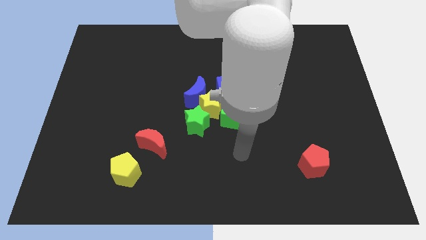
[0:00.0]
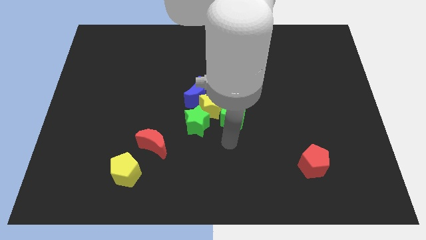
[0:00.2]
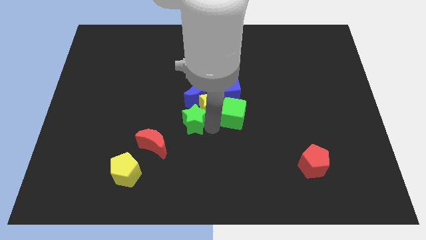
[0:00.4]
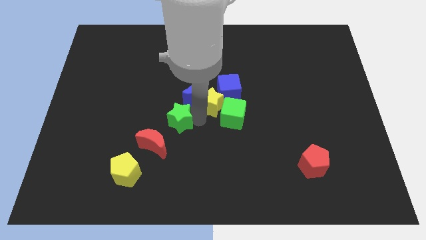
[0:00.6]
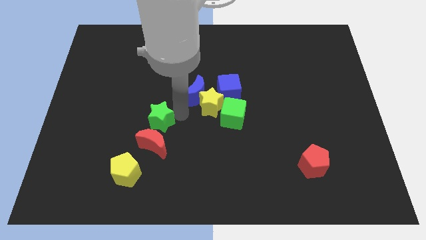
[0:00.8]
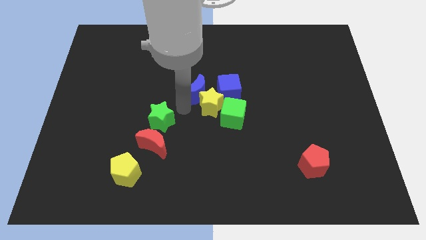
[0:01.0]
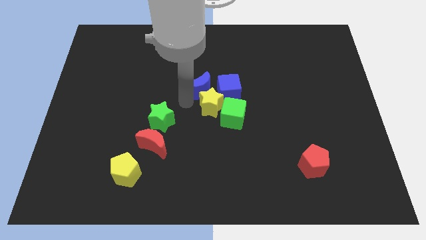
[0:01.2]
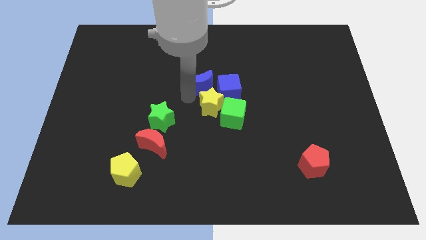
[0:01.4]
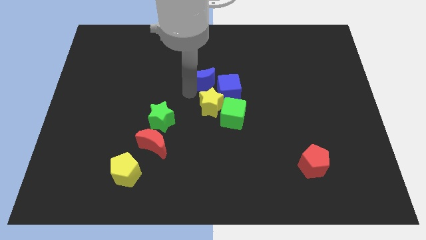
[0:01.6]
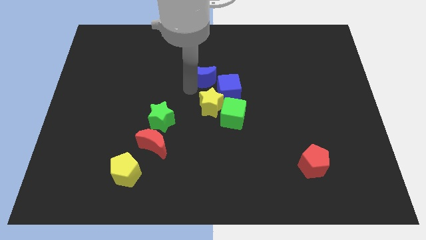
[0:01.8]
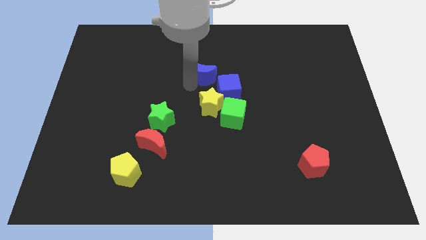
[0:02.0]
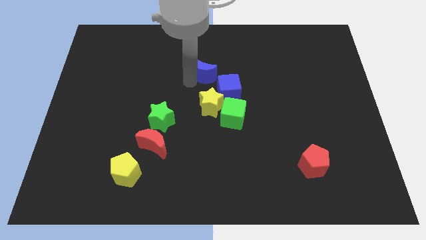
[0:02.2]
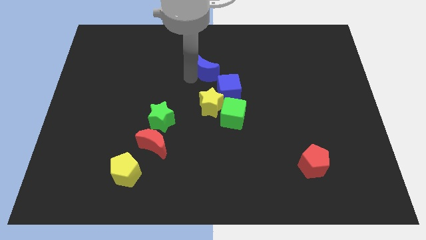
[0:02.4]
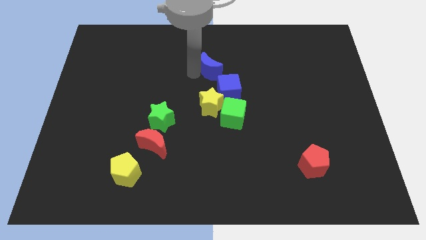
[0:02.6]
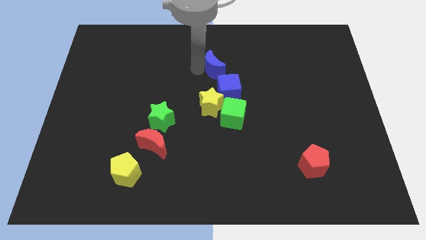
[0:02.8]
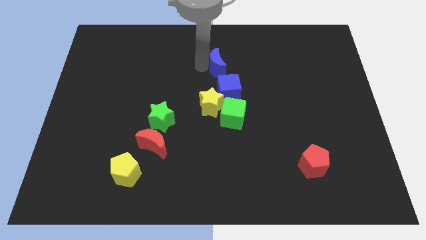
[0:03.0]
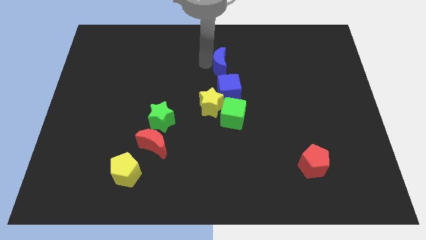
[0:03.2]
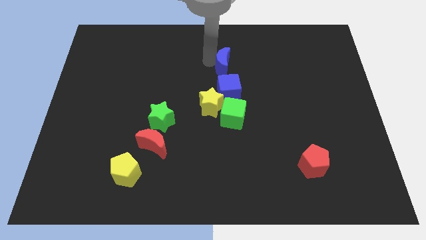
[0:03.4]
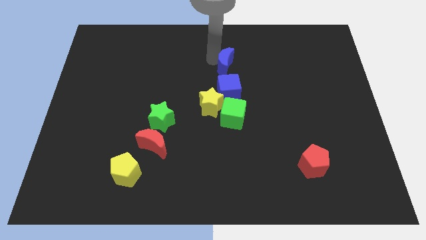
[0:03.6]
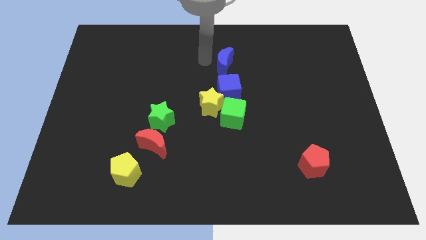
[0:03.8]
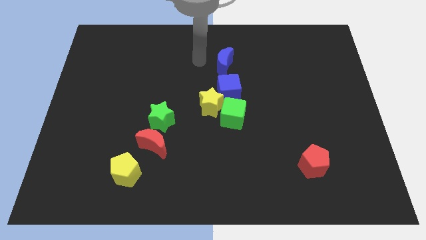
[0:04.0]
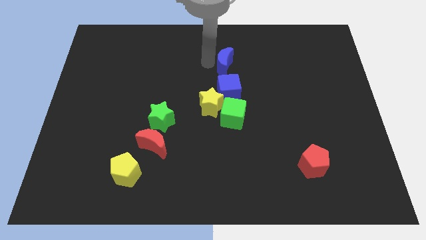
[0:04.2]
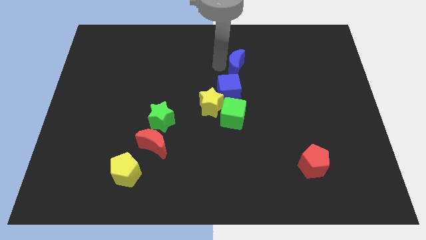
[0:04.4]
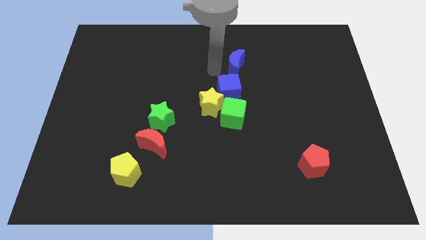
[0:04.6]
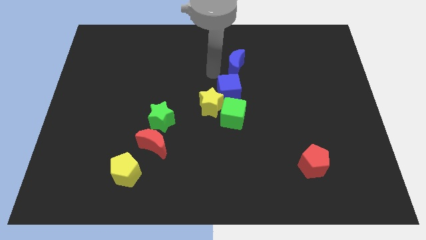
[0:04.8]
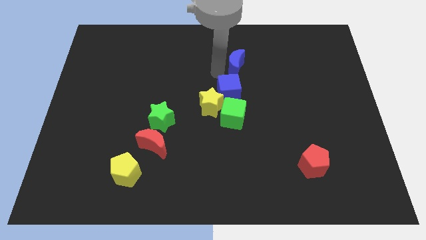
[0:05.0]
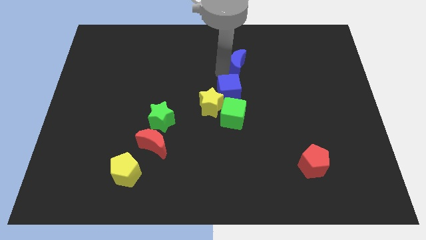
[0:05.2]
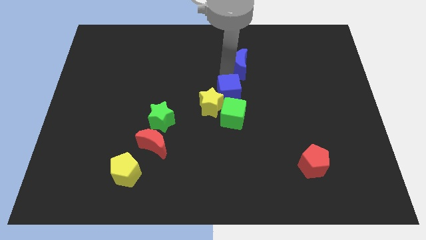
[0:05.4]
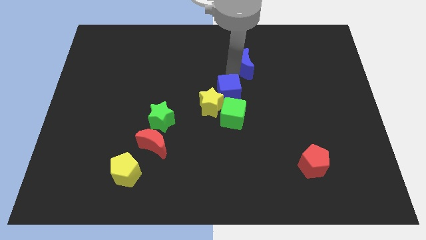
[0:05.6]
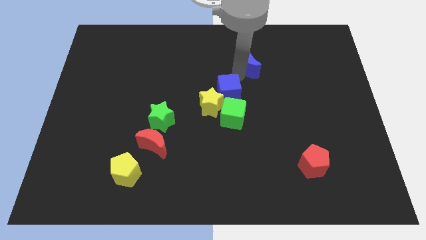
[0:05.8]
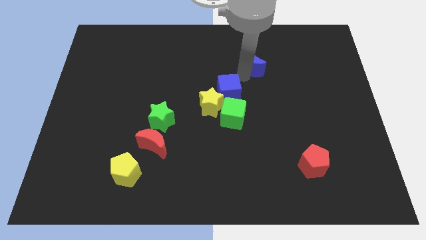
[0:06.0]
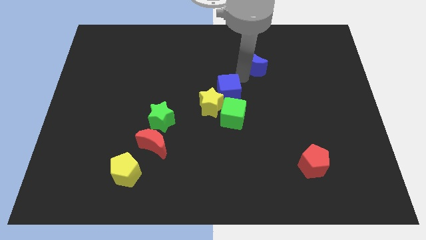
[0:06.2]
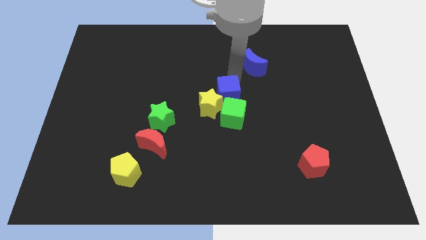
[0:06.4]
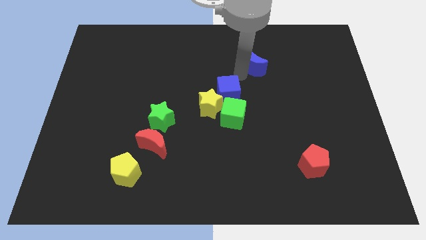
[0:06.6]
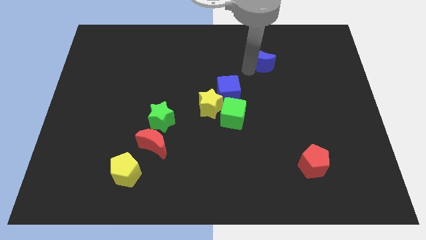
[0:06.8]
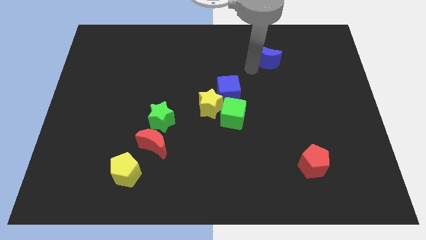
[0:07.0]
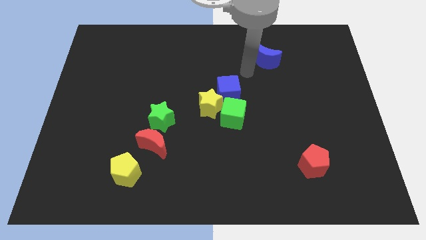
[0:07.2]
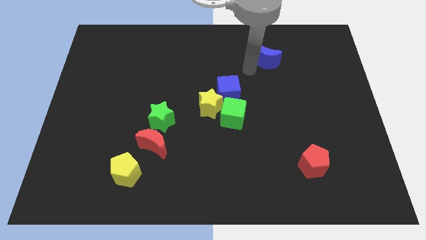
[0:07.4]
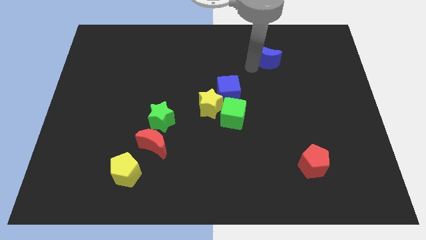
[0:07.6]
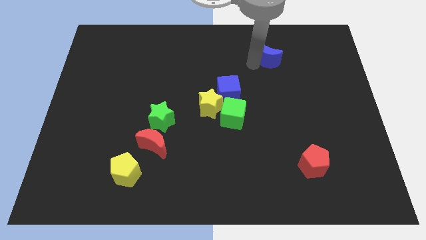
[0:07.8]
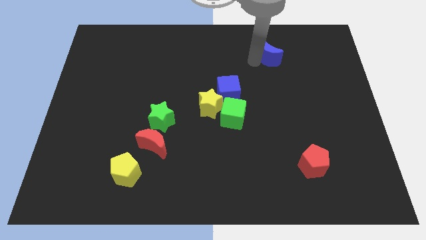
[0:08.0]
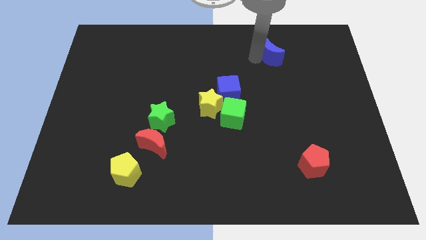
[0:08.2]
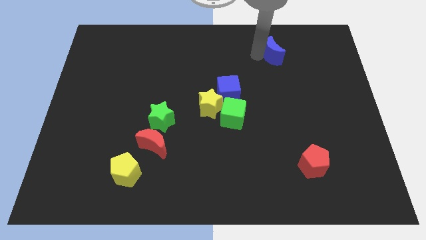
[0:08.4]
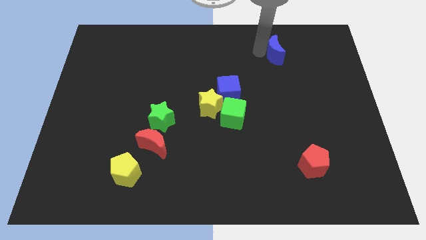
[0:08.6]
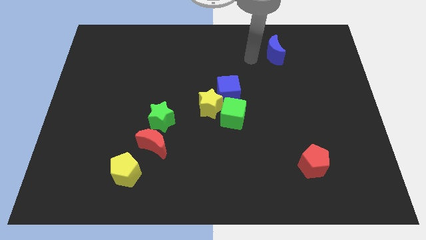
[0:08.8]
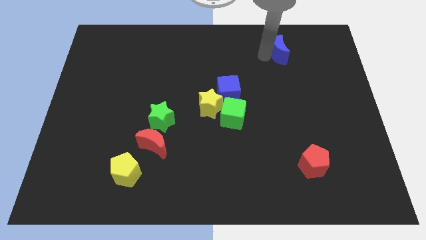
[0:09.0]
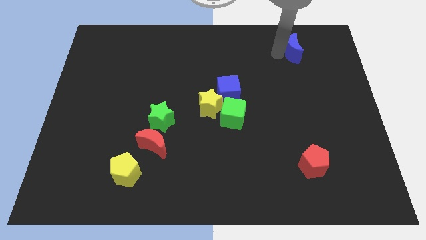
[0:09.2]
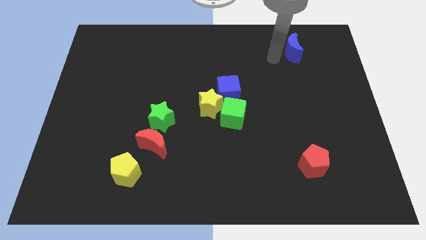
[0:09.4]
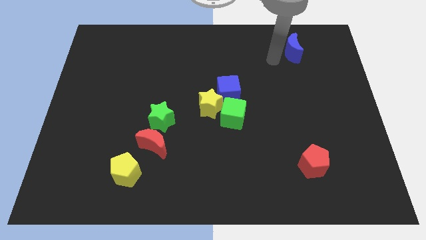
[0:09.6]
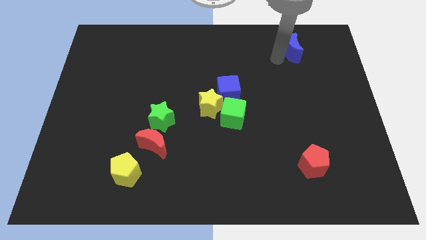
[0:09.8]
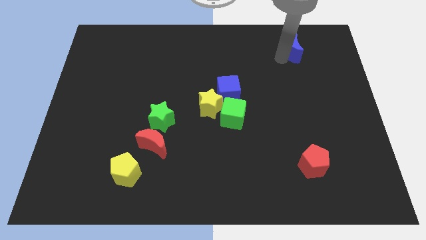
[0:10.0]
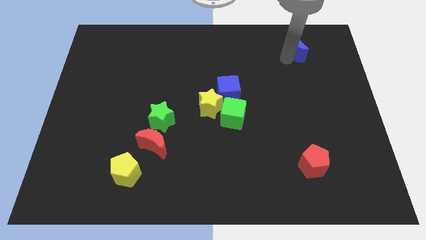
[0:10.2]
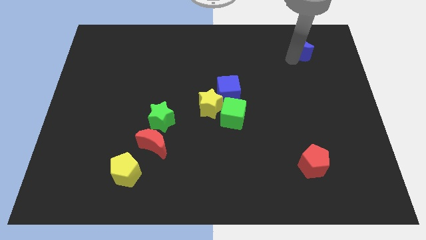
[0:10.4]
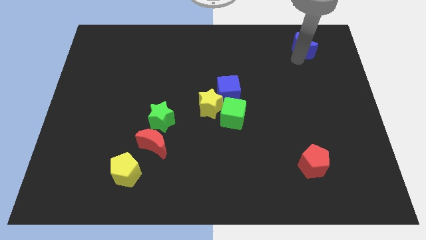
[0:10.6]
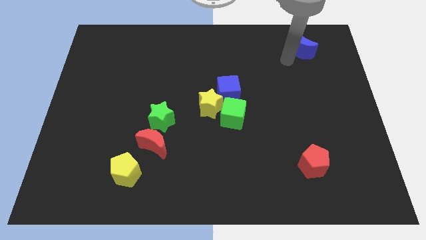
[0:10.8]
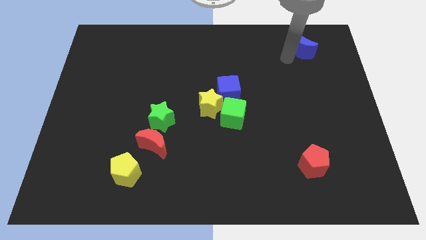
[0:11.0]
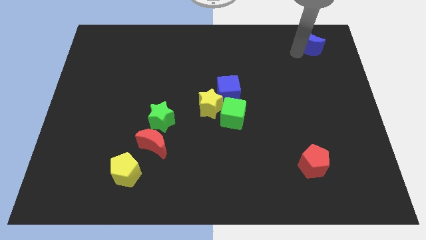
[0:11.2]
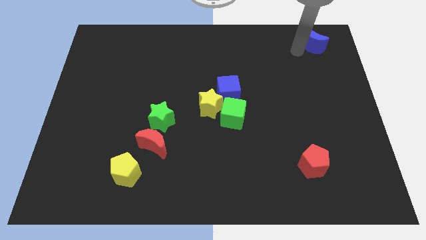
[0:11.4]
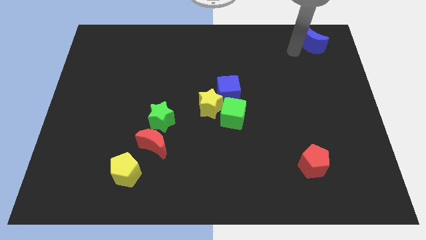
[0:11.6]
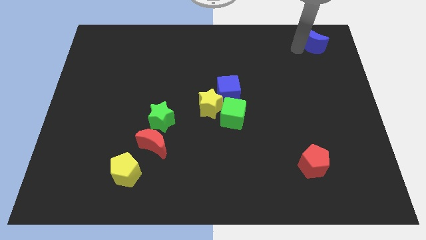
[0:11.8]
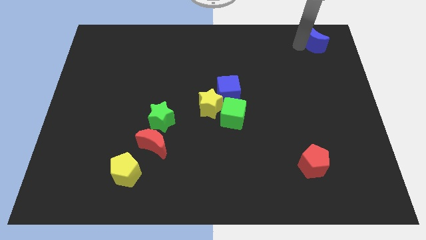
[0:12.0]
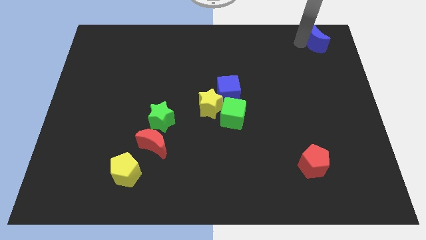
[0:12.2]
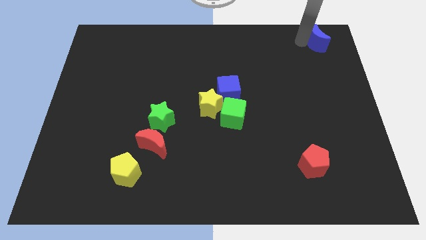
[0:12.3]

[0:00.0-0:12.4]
push the blue moon to the top right corner

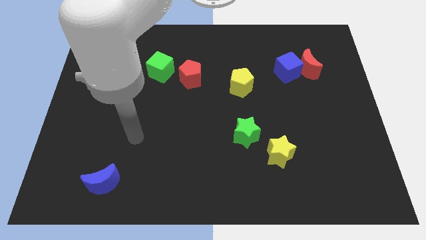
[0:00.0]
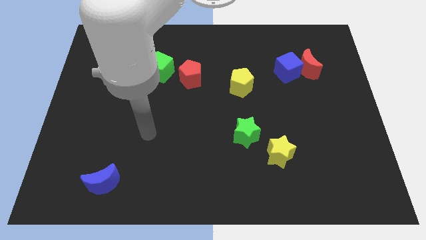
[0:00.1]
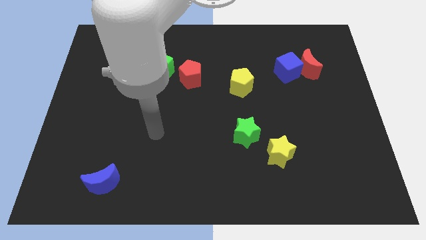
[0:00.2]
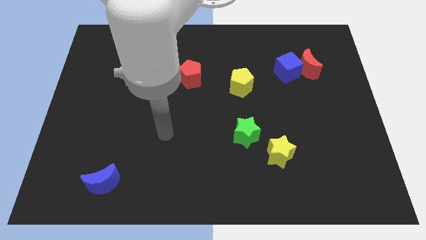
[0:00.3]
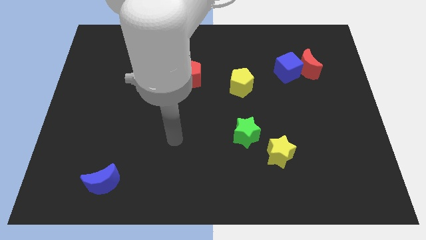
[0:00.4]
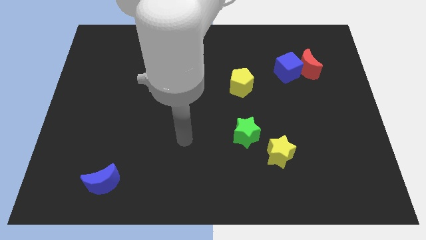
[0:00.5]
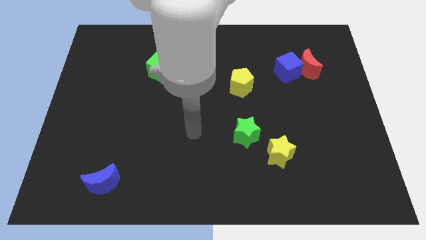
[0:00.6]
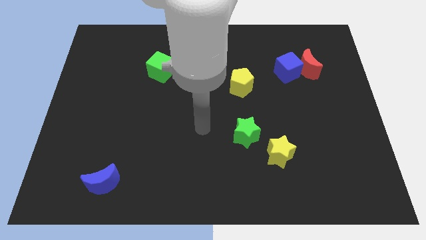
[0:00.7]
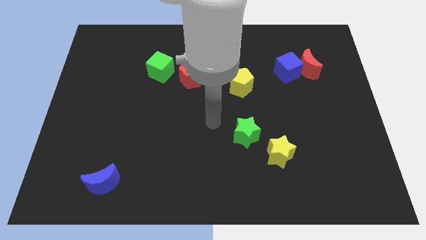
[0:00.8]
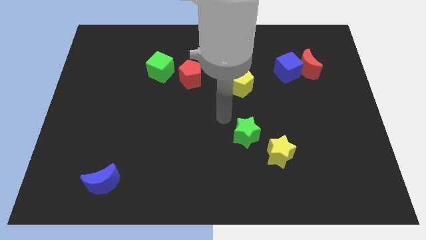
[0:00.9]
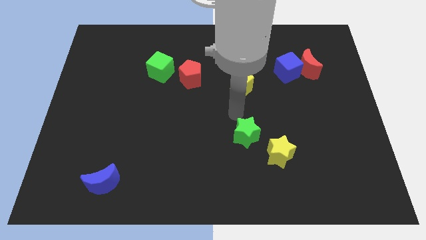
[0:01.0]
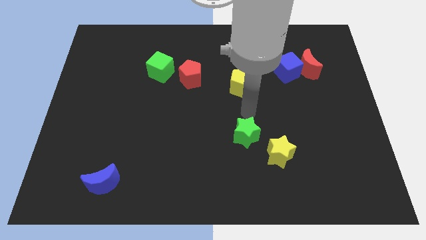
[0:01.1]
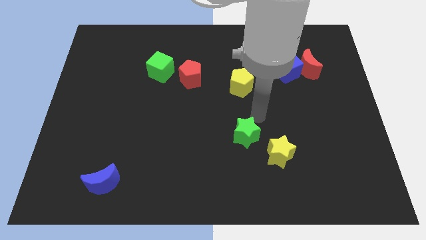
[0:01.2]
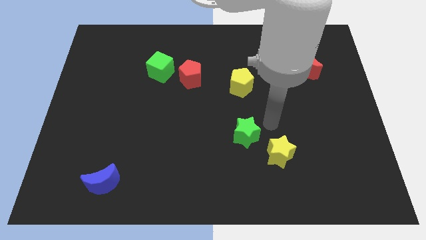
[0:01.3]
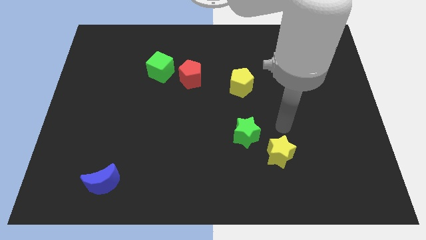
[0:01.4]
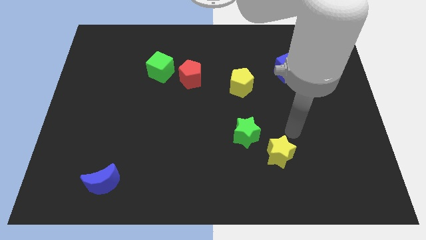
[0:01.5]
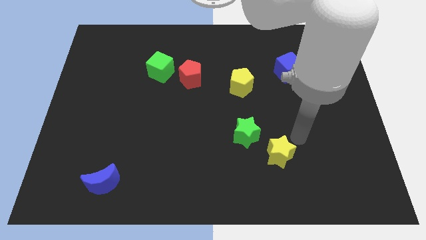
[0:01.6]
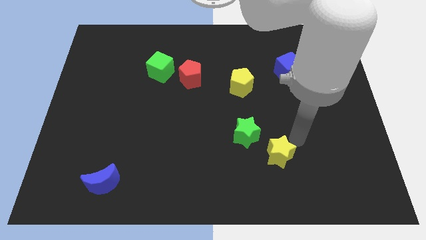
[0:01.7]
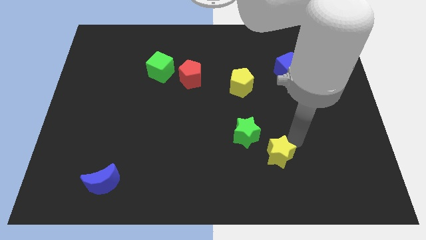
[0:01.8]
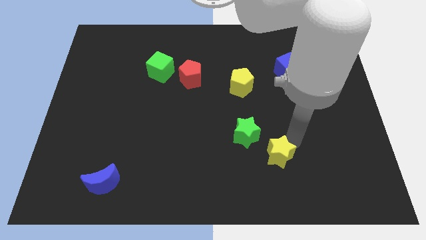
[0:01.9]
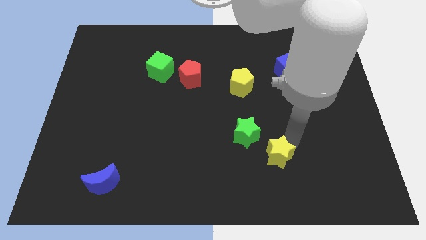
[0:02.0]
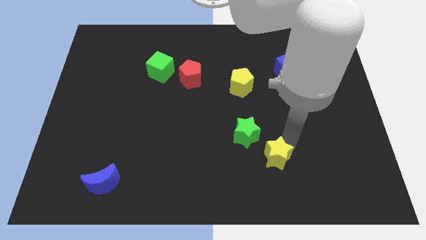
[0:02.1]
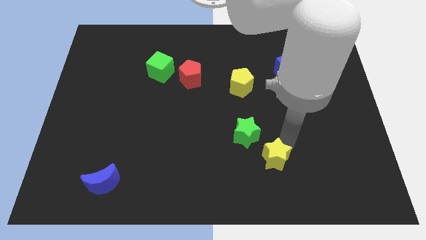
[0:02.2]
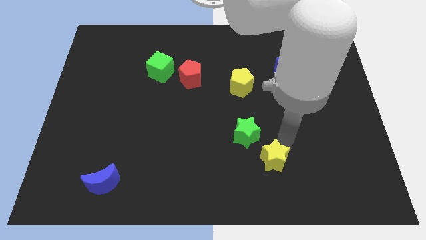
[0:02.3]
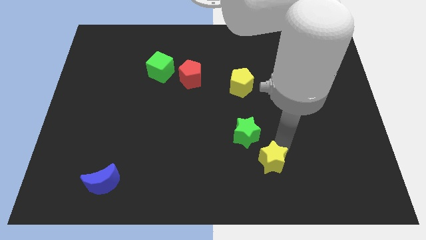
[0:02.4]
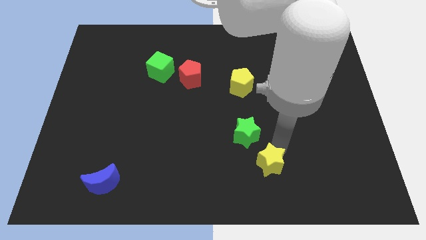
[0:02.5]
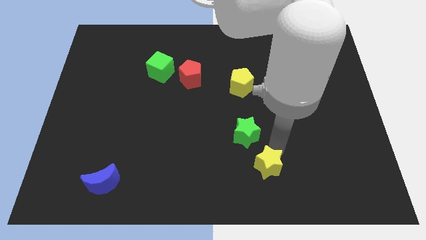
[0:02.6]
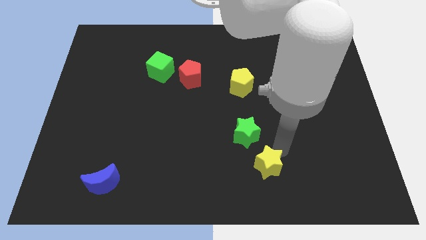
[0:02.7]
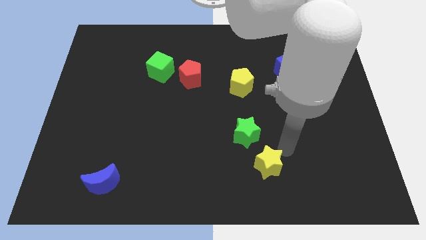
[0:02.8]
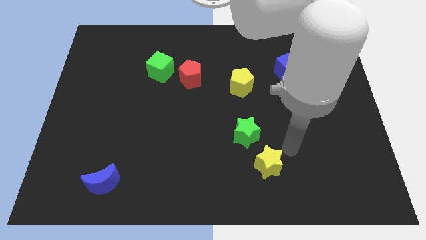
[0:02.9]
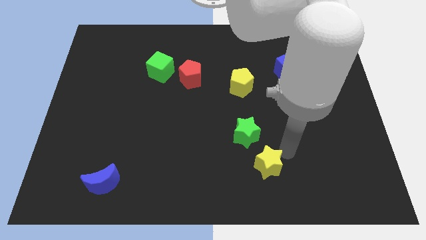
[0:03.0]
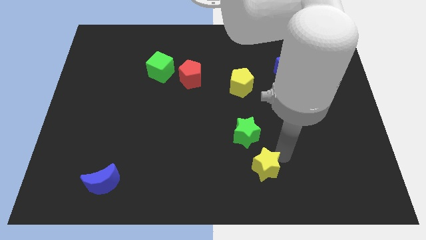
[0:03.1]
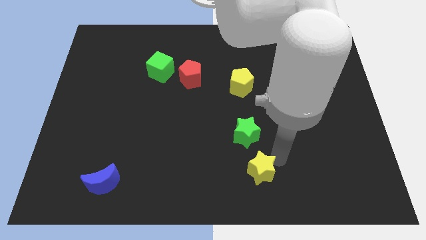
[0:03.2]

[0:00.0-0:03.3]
put the yellow star to the bottom
